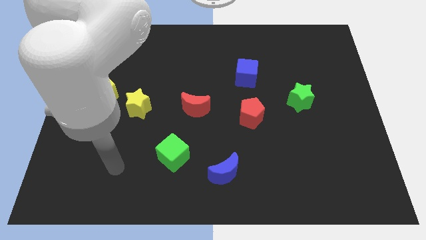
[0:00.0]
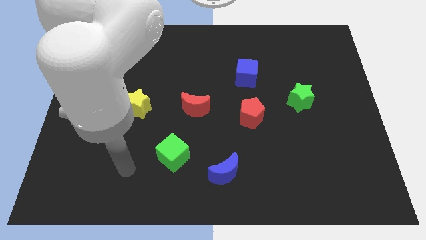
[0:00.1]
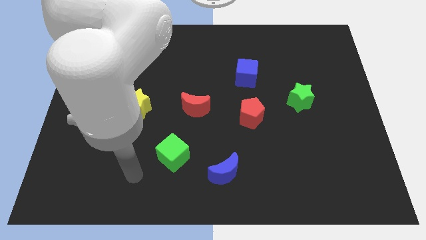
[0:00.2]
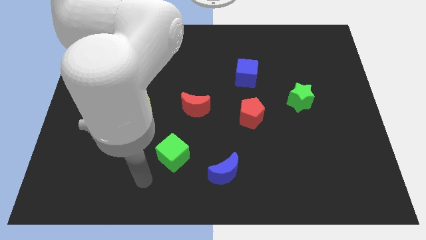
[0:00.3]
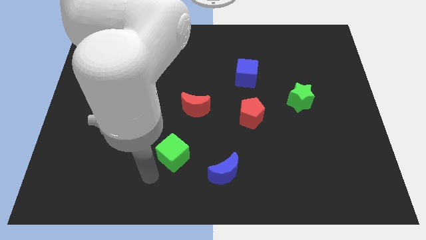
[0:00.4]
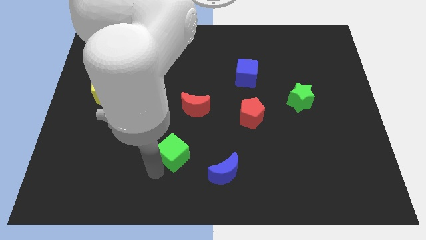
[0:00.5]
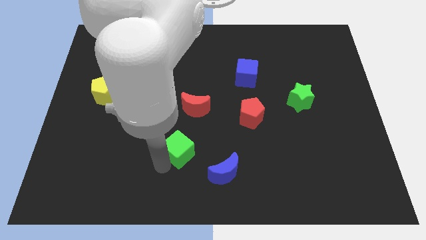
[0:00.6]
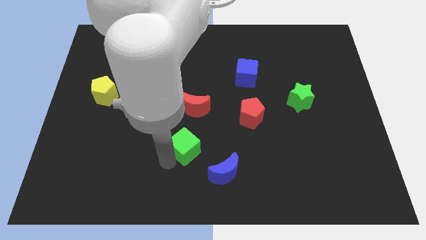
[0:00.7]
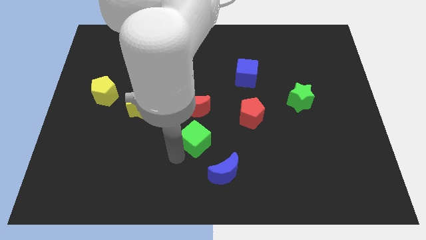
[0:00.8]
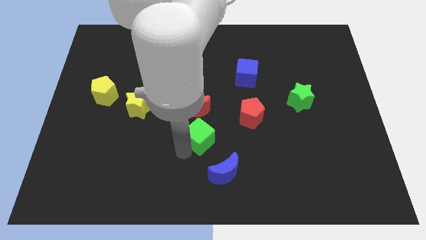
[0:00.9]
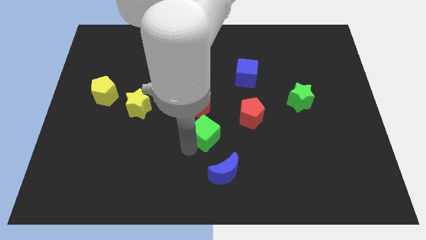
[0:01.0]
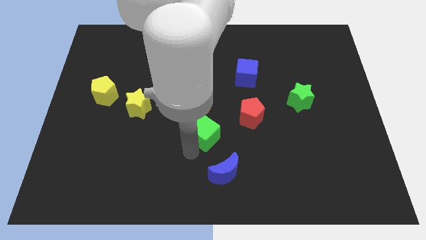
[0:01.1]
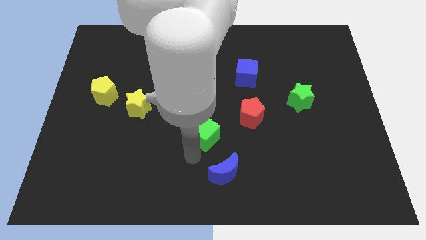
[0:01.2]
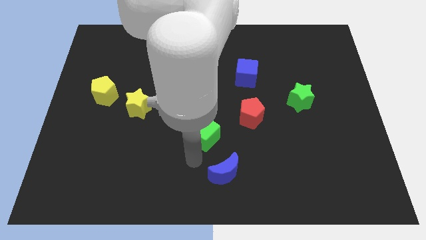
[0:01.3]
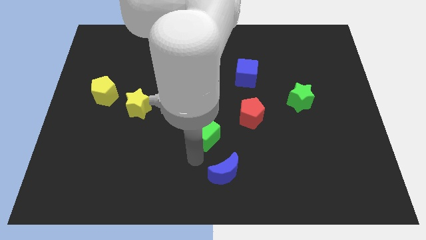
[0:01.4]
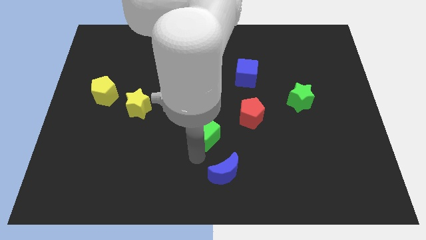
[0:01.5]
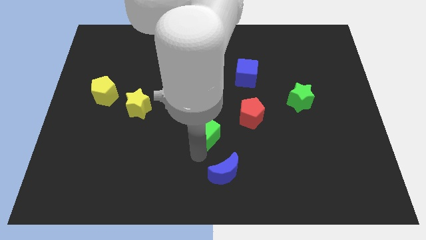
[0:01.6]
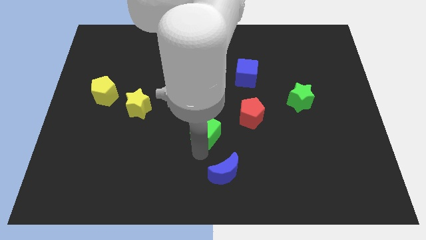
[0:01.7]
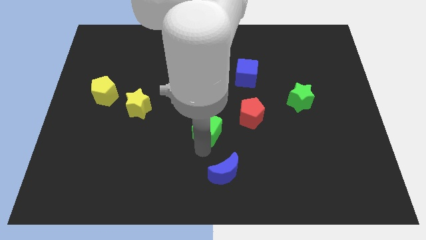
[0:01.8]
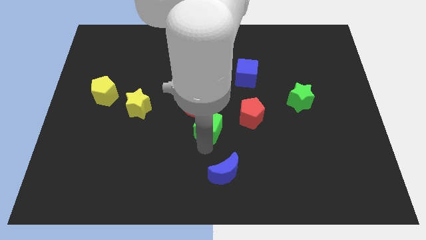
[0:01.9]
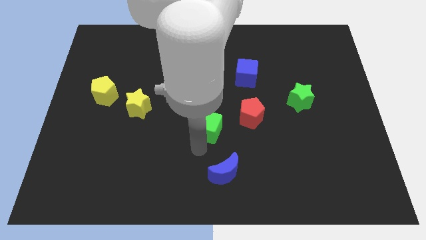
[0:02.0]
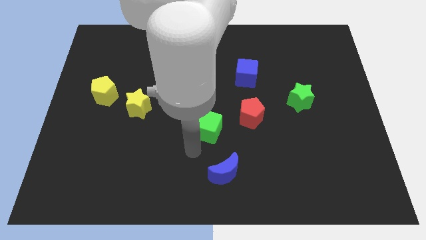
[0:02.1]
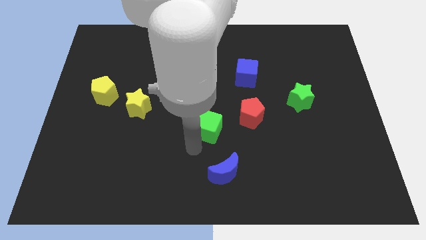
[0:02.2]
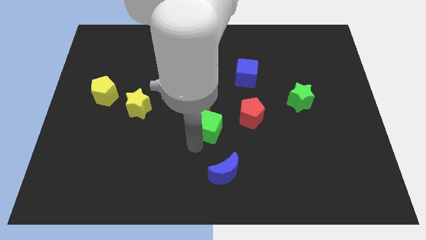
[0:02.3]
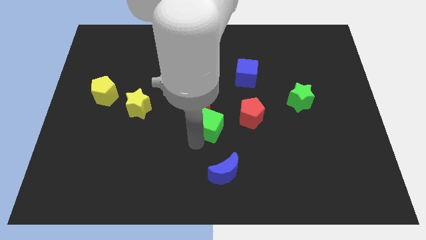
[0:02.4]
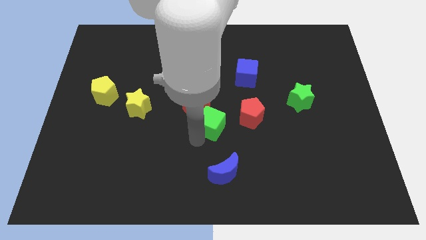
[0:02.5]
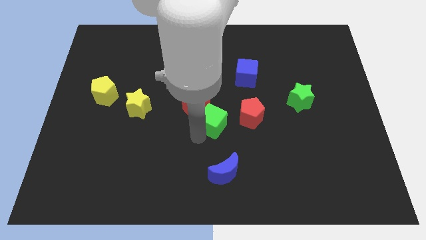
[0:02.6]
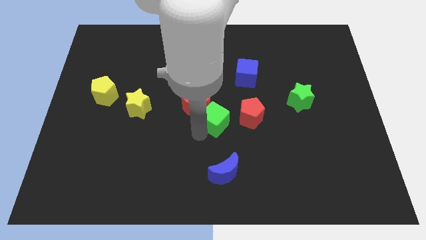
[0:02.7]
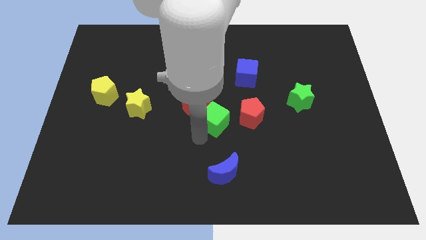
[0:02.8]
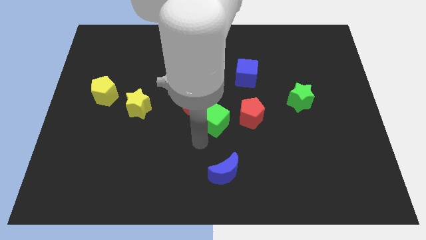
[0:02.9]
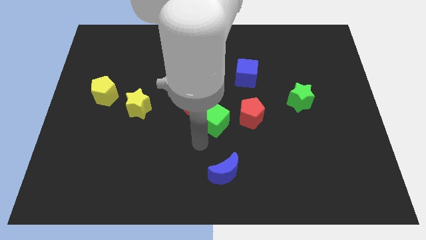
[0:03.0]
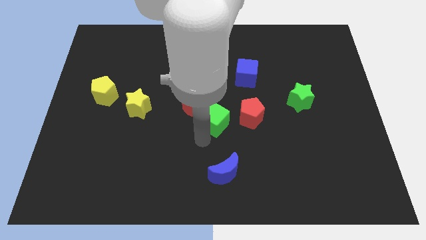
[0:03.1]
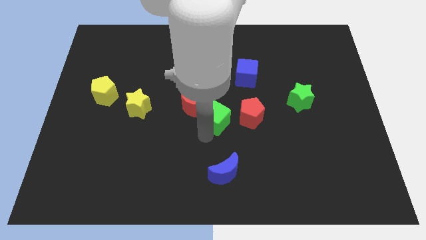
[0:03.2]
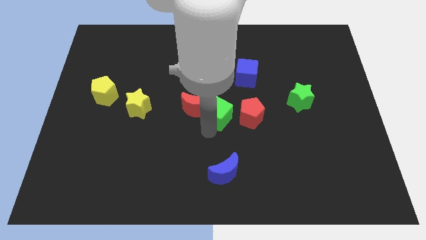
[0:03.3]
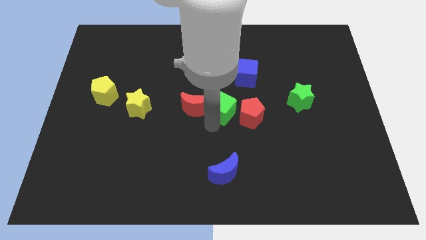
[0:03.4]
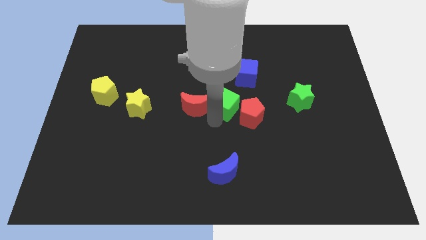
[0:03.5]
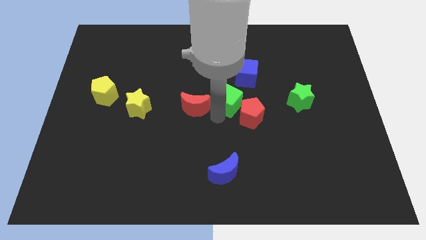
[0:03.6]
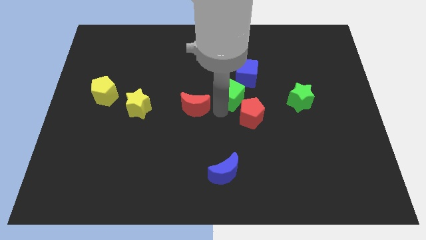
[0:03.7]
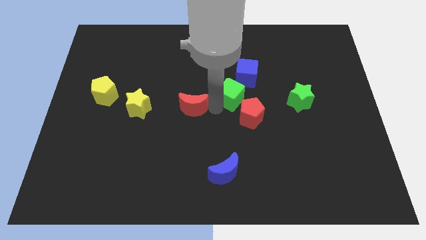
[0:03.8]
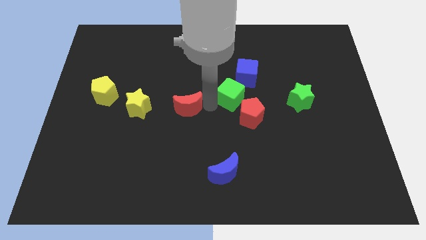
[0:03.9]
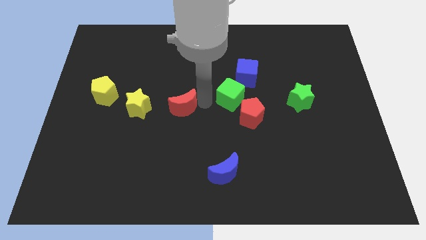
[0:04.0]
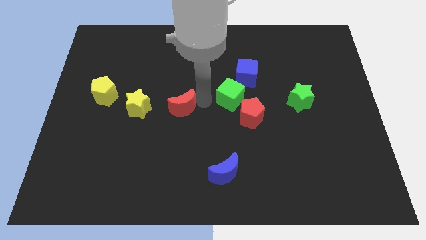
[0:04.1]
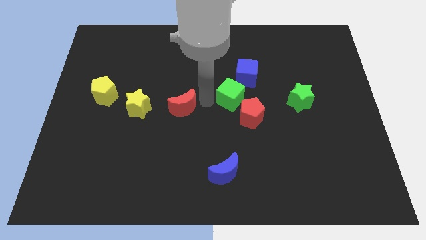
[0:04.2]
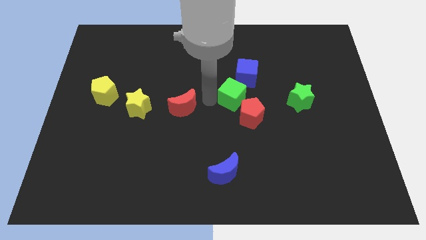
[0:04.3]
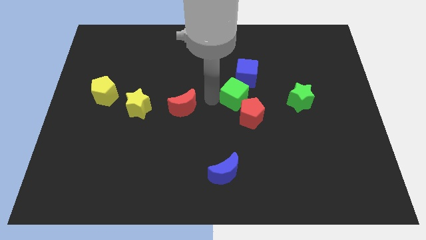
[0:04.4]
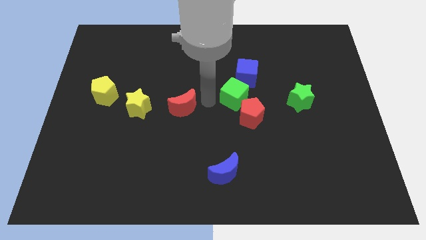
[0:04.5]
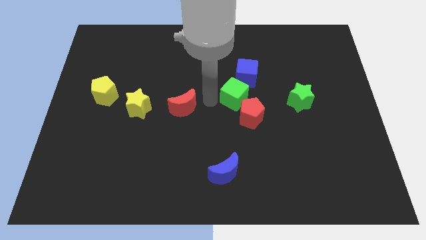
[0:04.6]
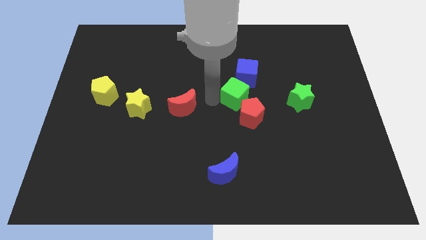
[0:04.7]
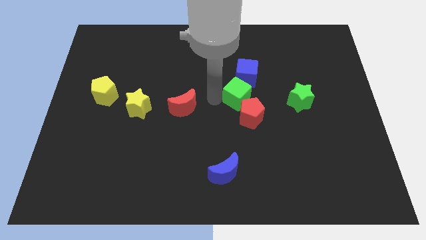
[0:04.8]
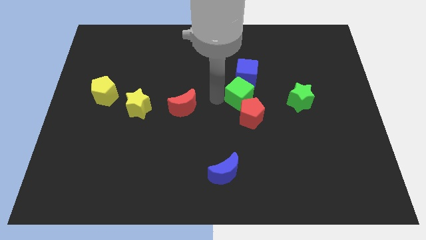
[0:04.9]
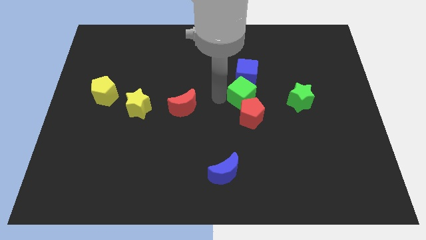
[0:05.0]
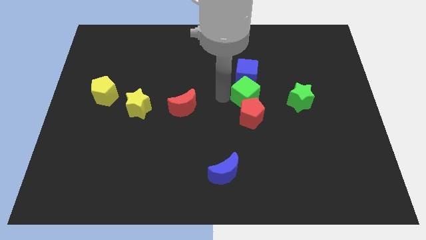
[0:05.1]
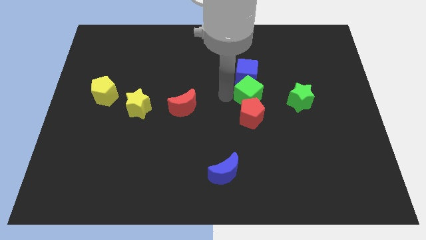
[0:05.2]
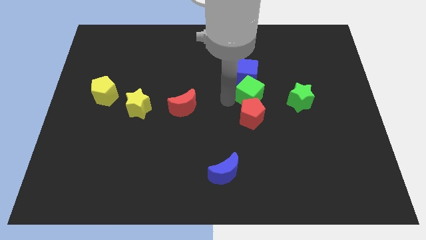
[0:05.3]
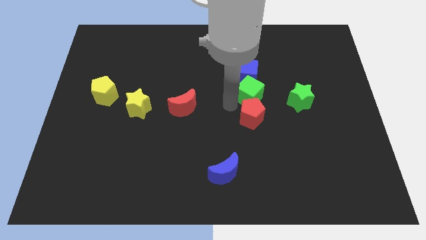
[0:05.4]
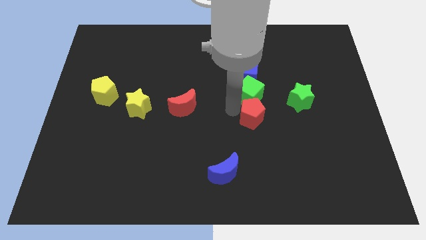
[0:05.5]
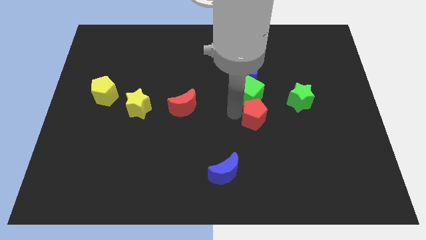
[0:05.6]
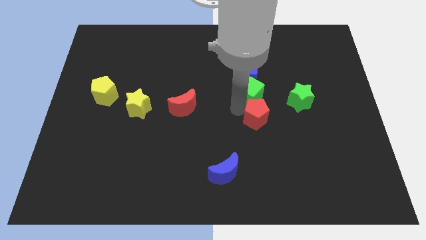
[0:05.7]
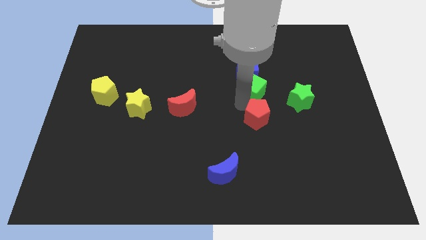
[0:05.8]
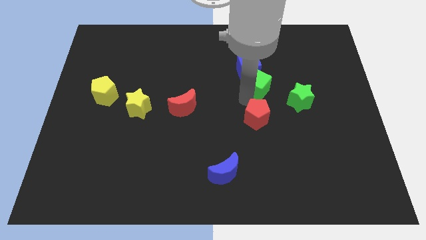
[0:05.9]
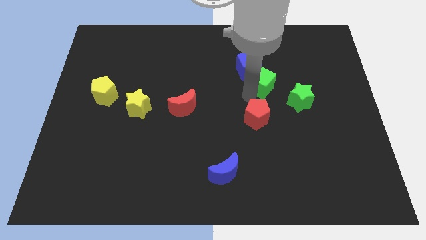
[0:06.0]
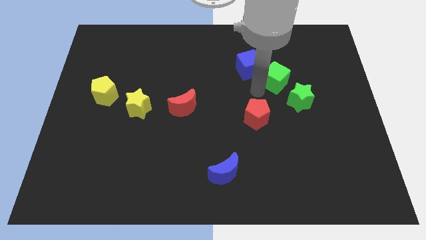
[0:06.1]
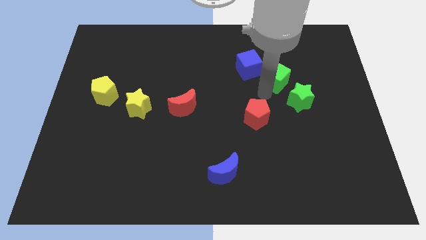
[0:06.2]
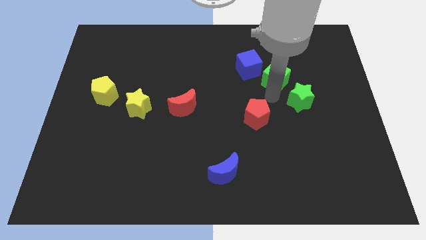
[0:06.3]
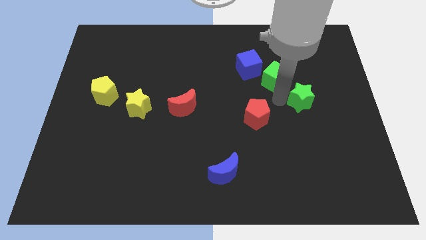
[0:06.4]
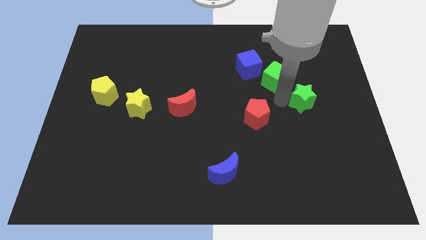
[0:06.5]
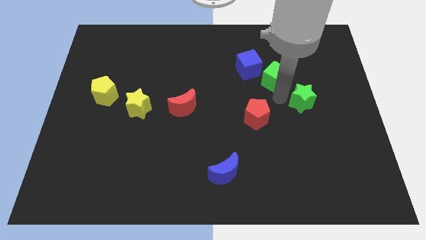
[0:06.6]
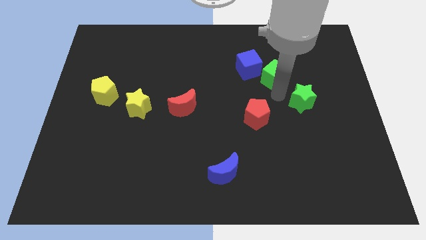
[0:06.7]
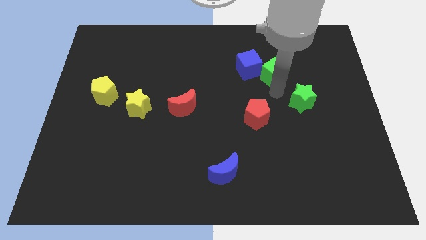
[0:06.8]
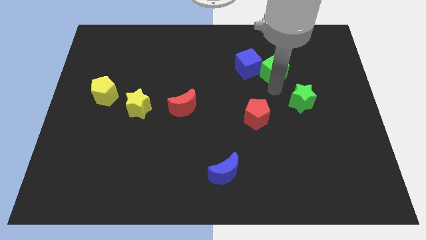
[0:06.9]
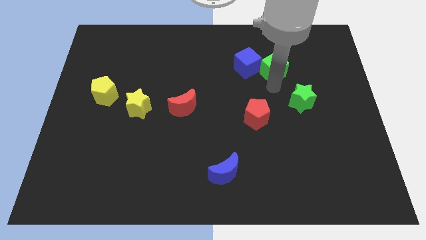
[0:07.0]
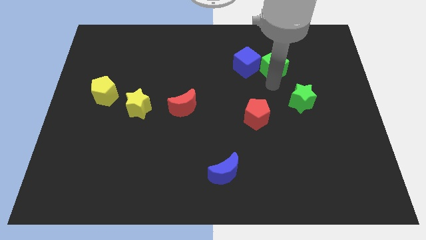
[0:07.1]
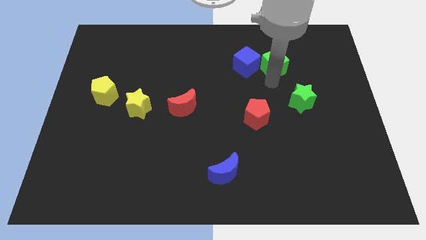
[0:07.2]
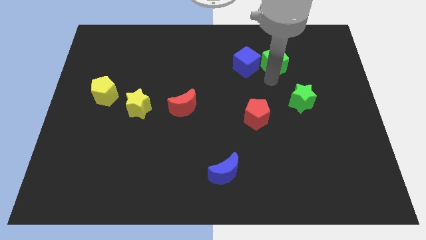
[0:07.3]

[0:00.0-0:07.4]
put the green cube to the top right side of the blue cube
